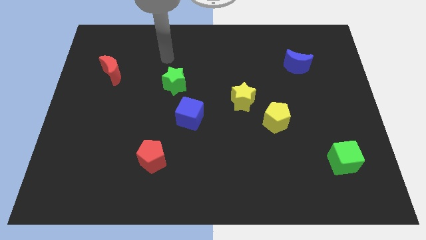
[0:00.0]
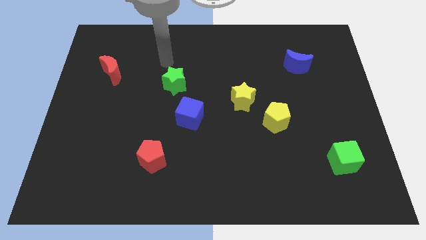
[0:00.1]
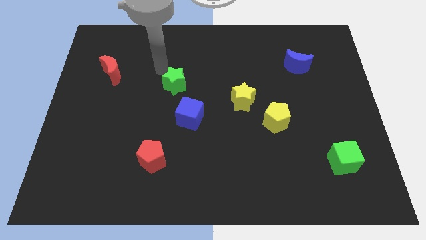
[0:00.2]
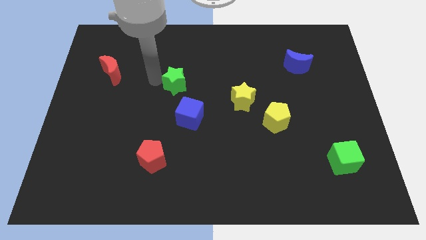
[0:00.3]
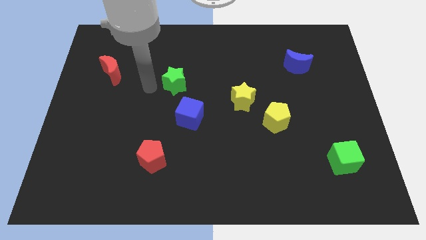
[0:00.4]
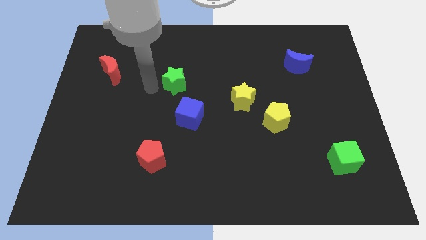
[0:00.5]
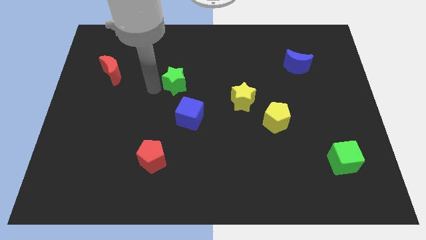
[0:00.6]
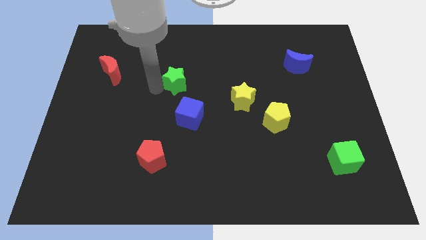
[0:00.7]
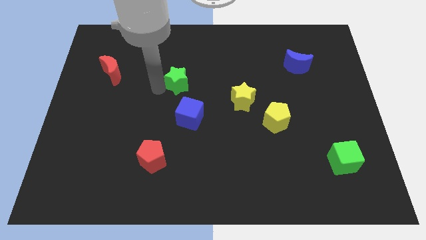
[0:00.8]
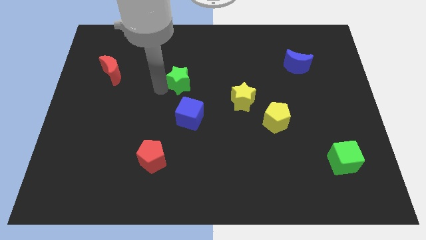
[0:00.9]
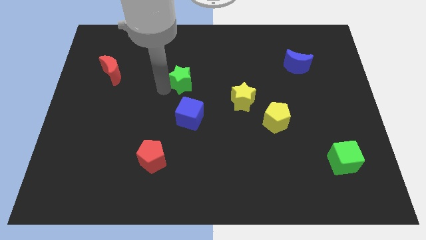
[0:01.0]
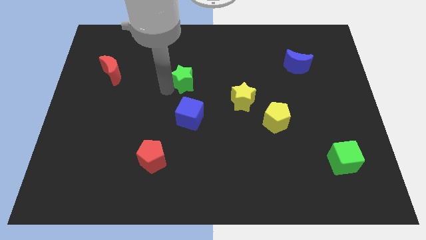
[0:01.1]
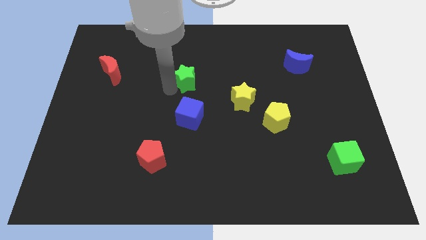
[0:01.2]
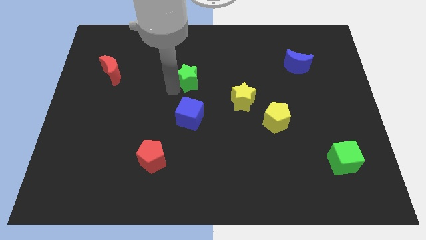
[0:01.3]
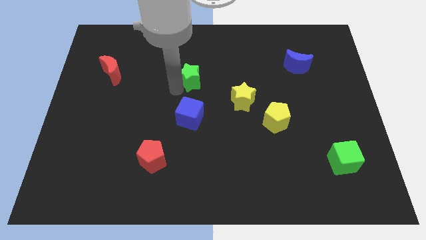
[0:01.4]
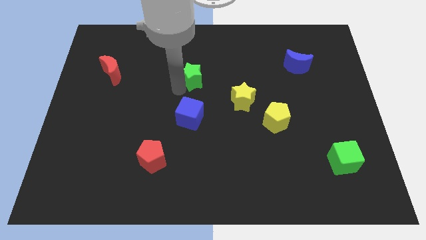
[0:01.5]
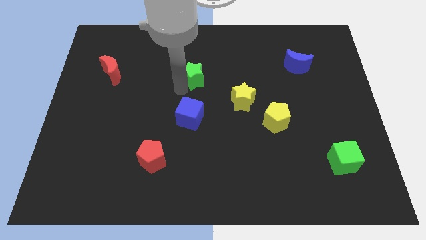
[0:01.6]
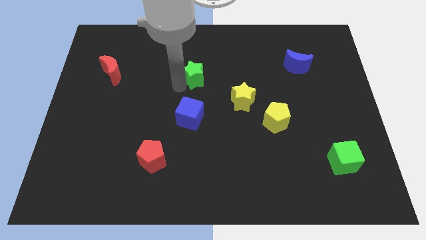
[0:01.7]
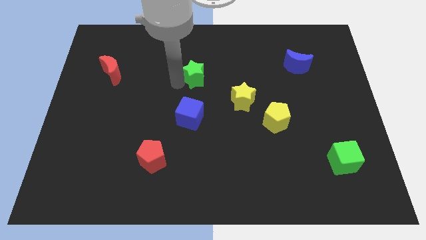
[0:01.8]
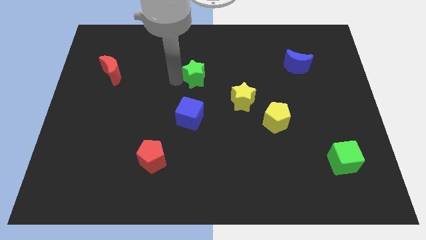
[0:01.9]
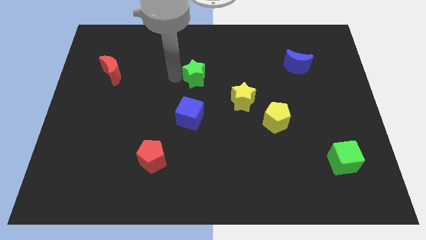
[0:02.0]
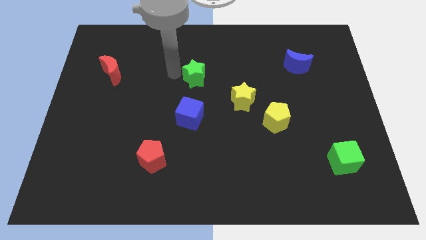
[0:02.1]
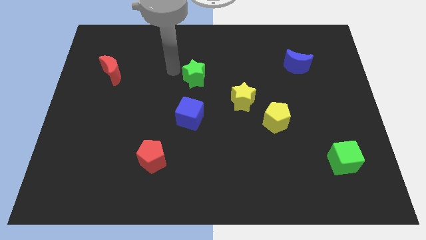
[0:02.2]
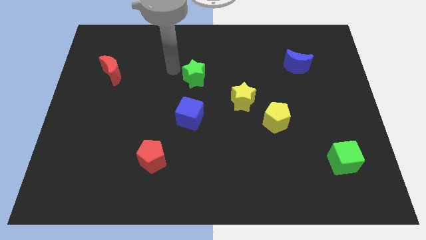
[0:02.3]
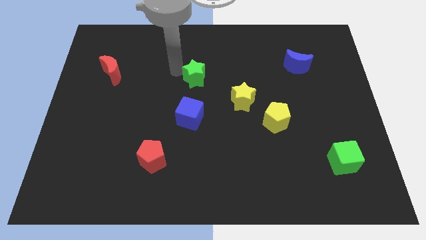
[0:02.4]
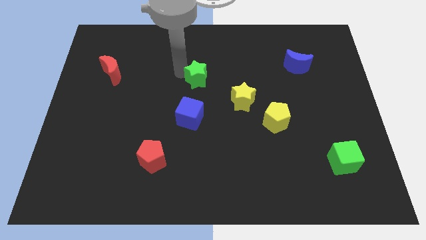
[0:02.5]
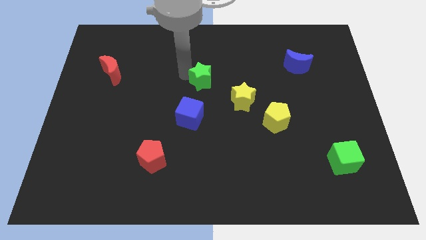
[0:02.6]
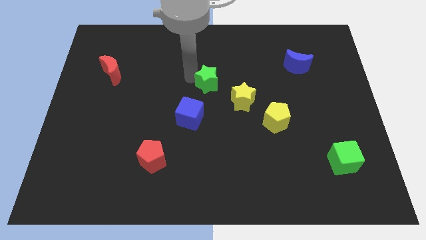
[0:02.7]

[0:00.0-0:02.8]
slightly slide the green star right

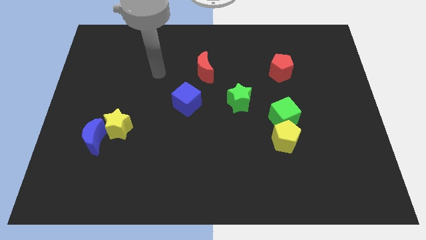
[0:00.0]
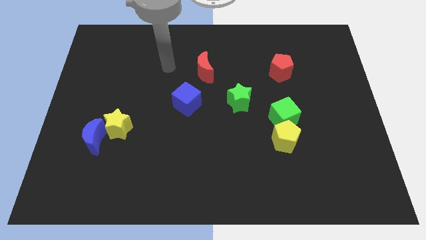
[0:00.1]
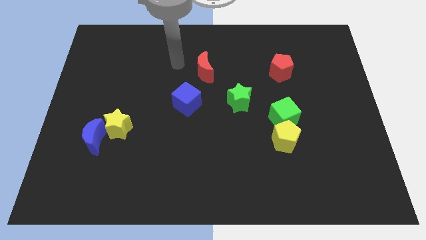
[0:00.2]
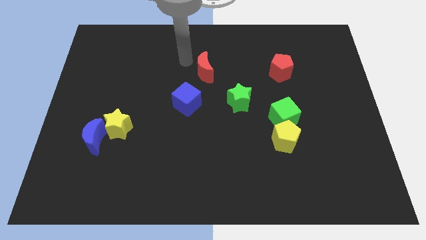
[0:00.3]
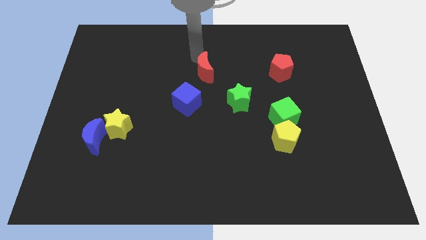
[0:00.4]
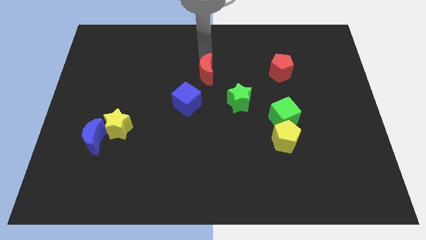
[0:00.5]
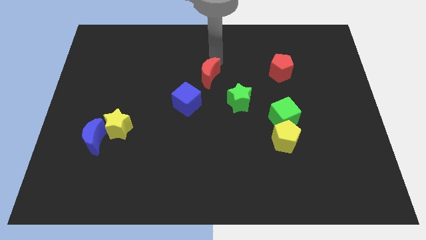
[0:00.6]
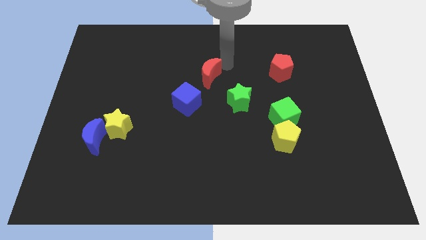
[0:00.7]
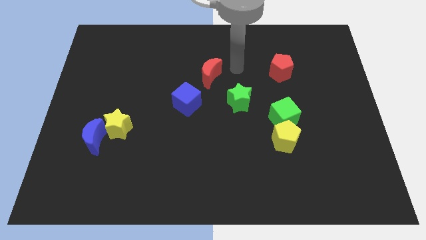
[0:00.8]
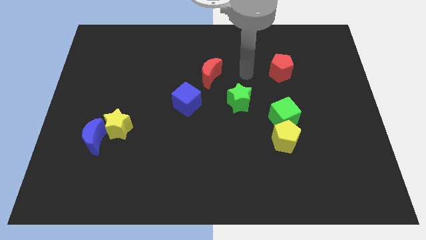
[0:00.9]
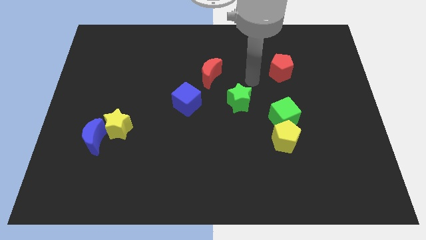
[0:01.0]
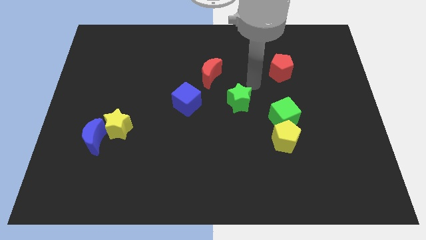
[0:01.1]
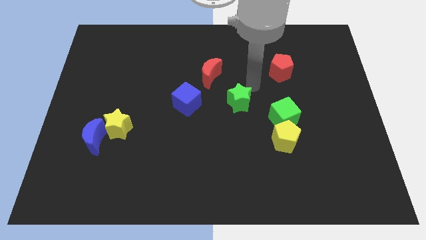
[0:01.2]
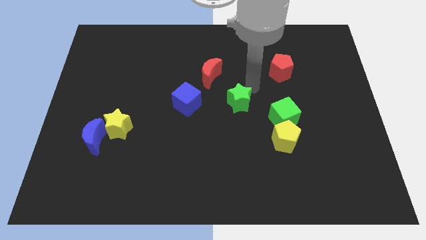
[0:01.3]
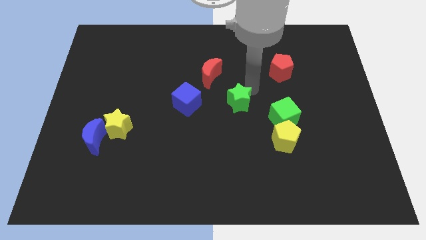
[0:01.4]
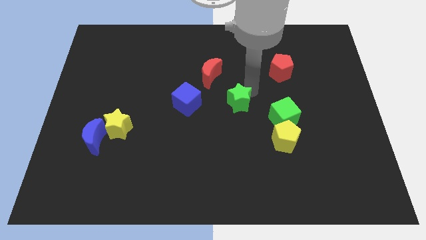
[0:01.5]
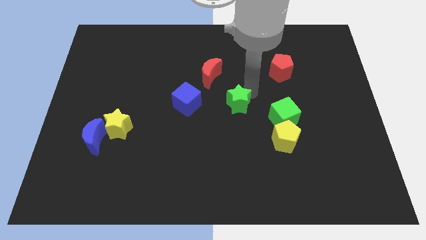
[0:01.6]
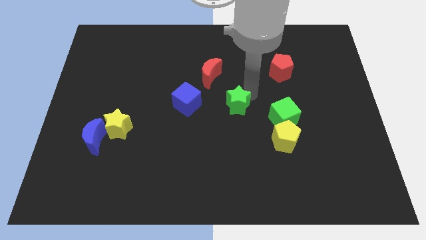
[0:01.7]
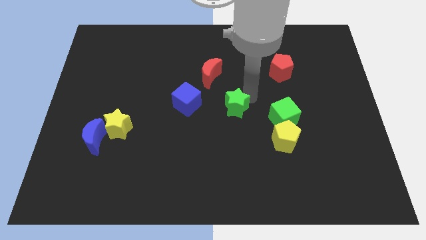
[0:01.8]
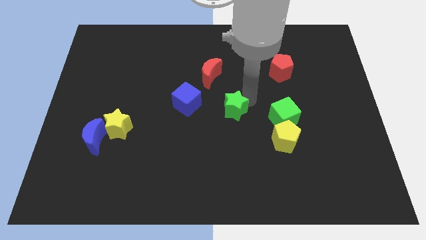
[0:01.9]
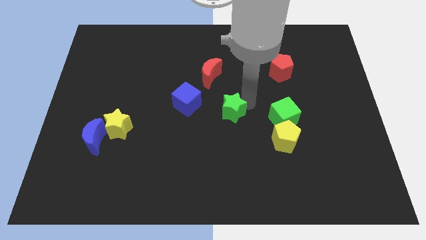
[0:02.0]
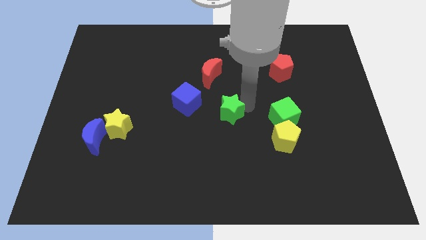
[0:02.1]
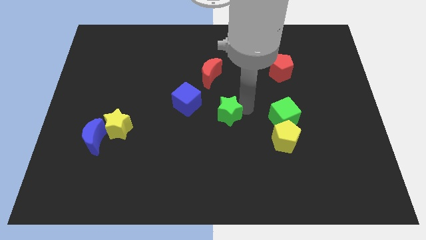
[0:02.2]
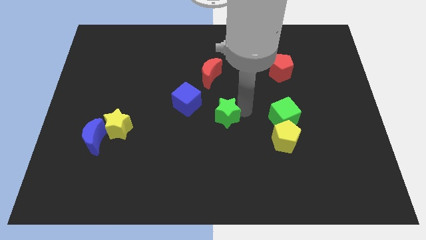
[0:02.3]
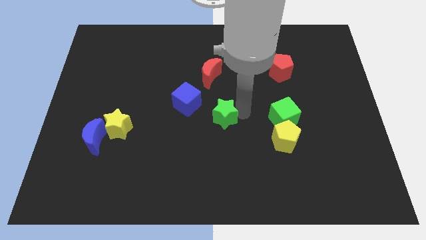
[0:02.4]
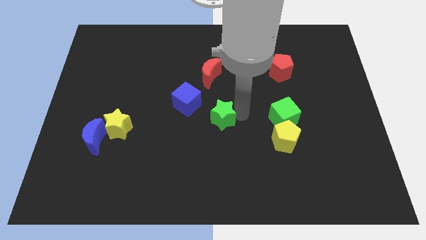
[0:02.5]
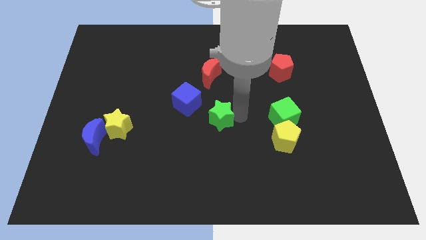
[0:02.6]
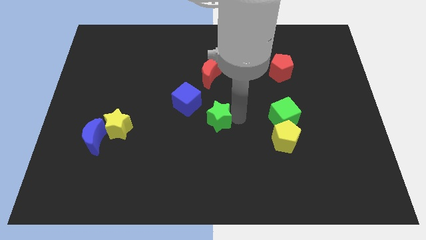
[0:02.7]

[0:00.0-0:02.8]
move the green star somewhat down and left

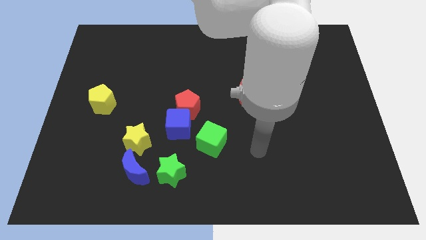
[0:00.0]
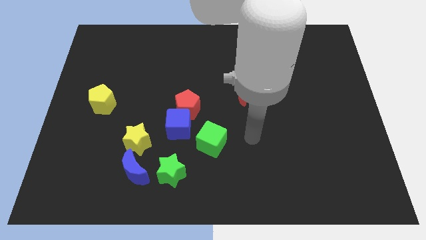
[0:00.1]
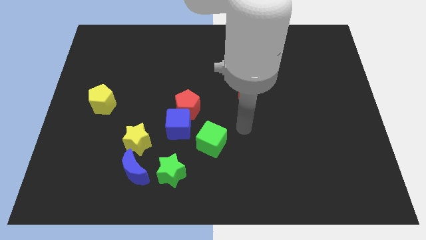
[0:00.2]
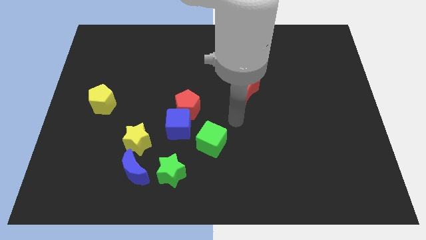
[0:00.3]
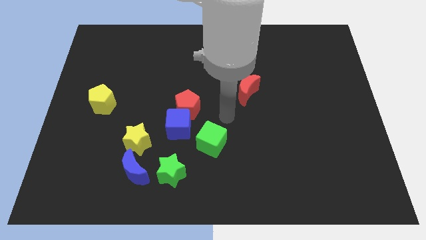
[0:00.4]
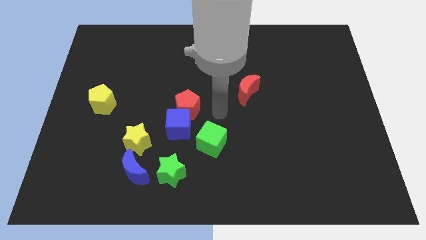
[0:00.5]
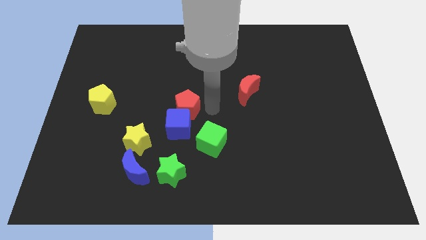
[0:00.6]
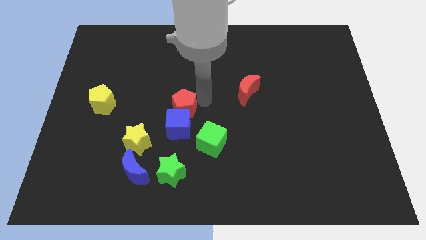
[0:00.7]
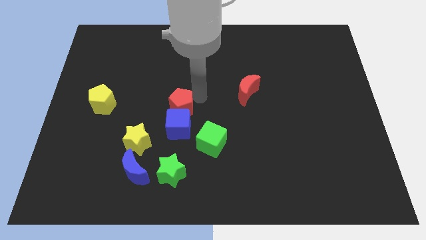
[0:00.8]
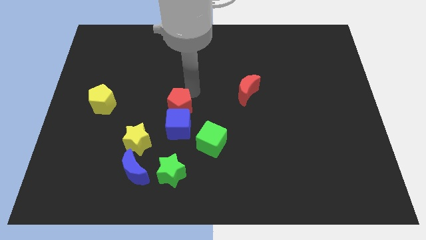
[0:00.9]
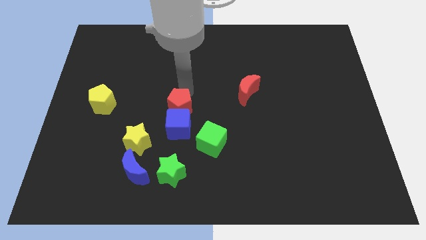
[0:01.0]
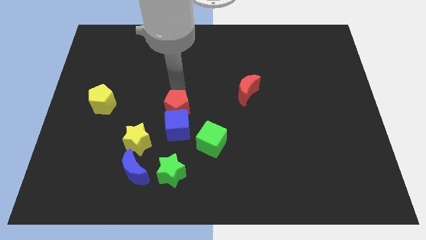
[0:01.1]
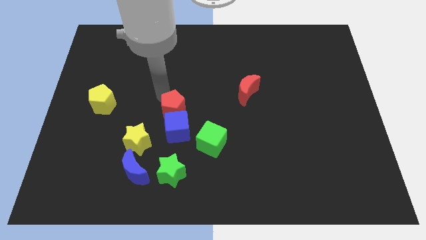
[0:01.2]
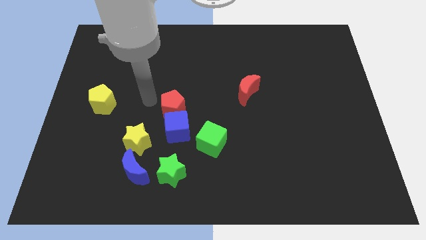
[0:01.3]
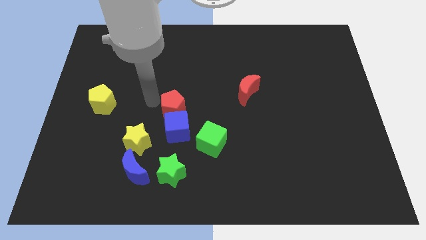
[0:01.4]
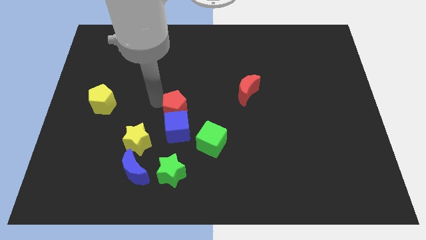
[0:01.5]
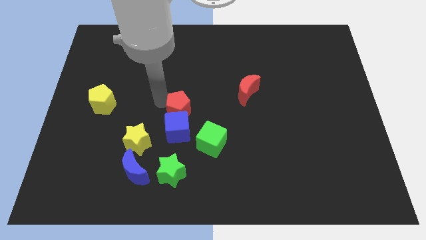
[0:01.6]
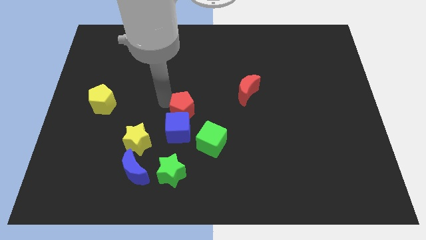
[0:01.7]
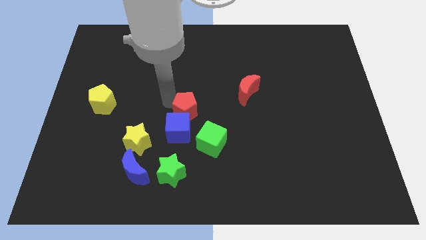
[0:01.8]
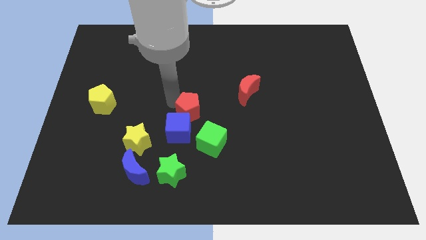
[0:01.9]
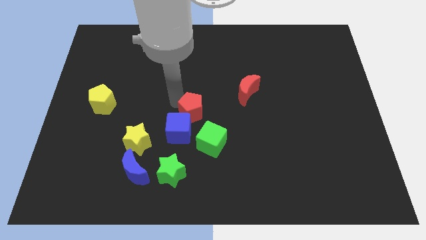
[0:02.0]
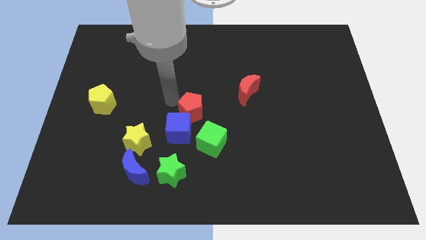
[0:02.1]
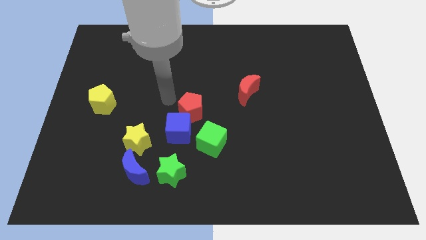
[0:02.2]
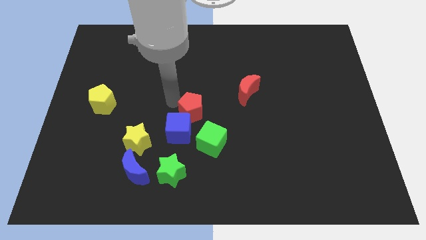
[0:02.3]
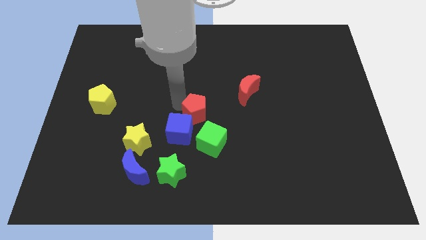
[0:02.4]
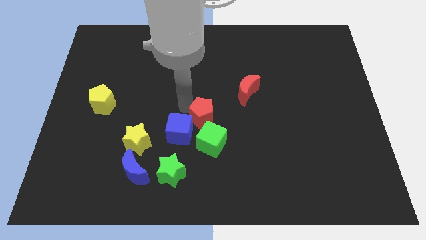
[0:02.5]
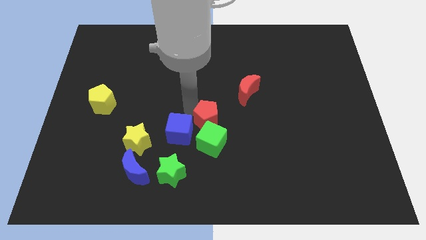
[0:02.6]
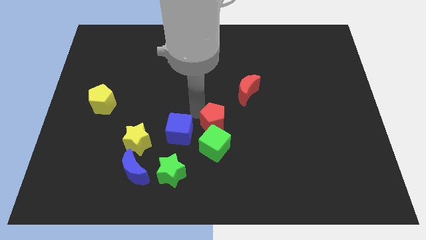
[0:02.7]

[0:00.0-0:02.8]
slide the red pentagon diagonally downwards and to the right a little
